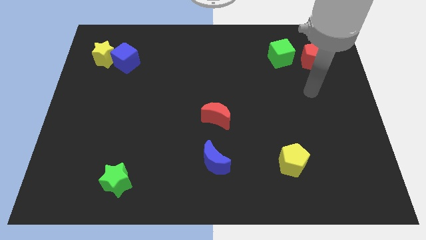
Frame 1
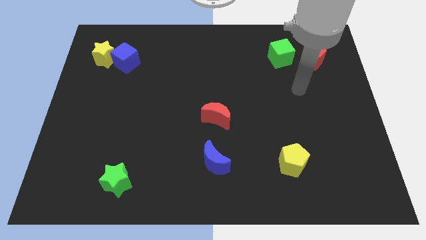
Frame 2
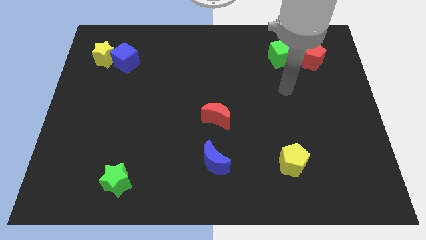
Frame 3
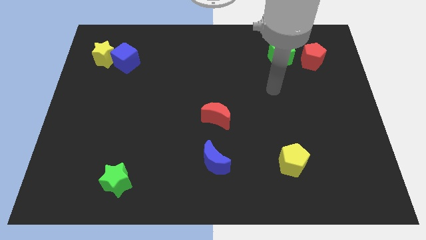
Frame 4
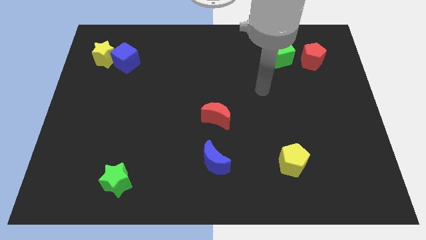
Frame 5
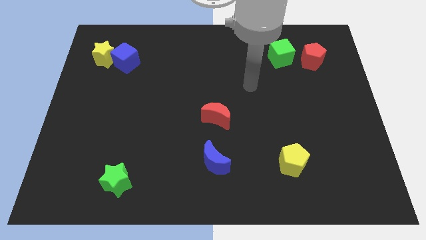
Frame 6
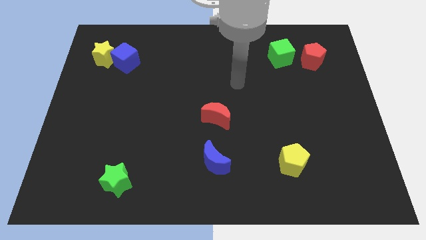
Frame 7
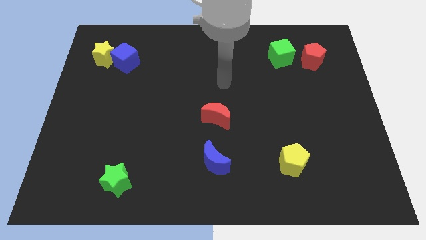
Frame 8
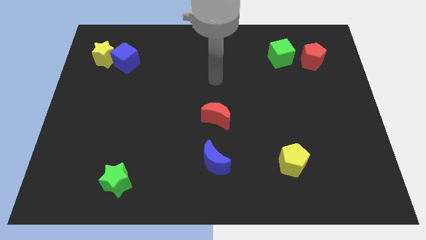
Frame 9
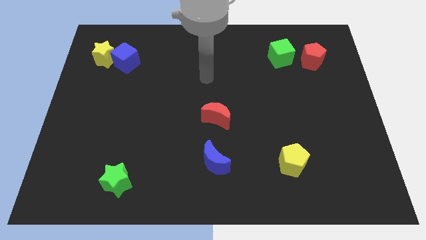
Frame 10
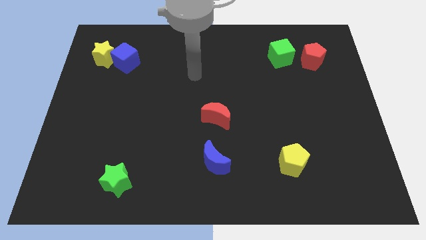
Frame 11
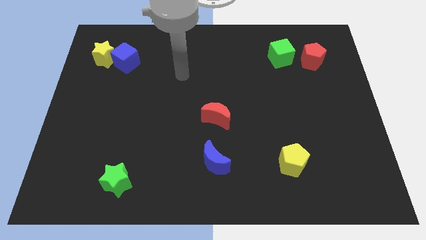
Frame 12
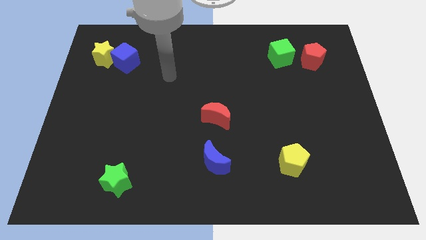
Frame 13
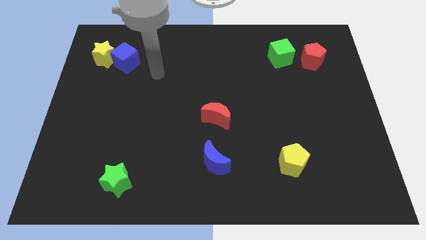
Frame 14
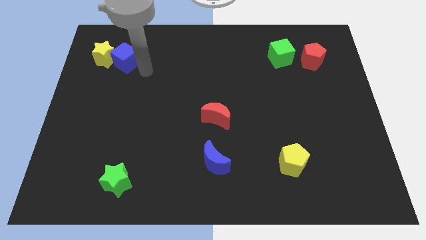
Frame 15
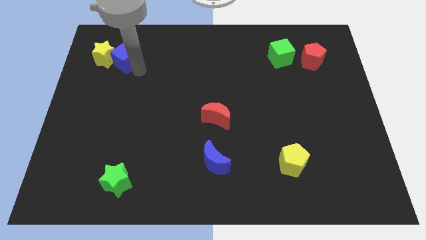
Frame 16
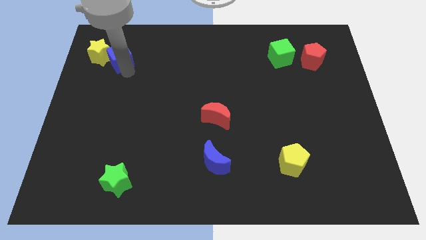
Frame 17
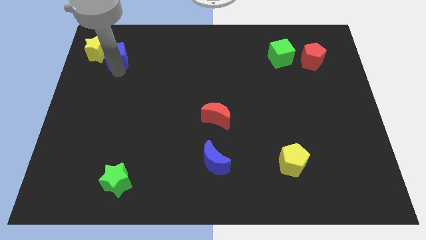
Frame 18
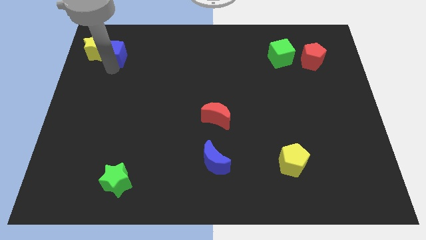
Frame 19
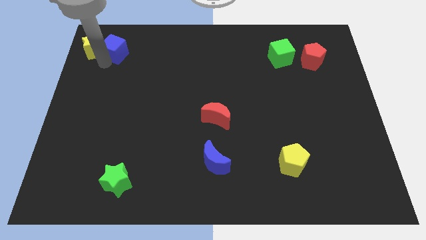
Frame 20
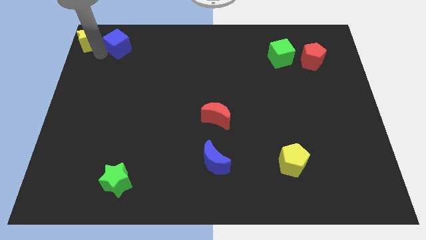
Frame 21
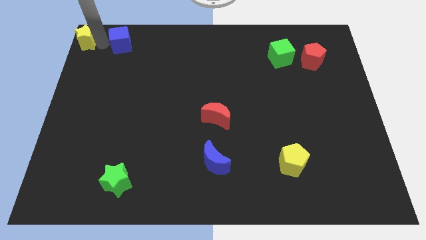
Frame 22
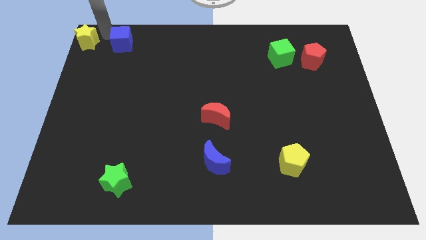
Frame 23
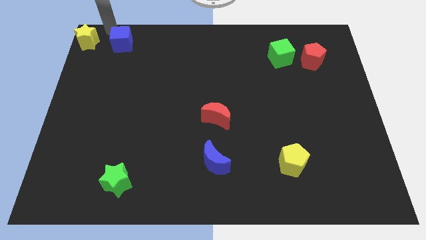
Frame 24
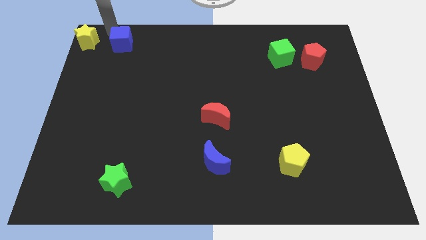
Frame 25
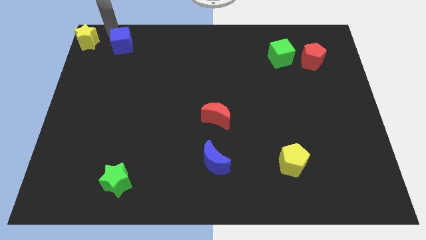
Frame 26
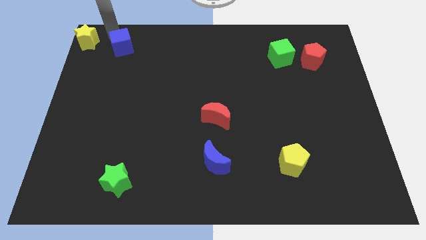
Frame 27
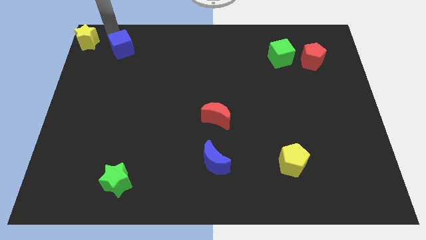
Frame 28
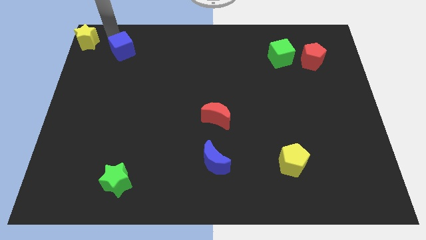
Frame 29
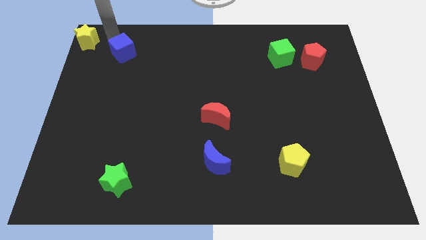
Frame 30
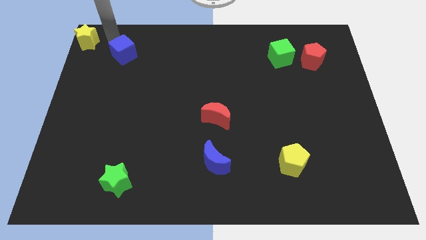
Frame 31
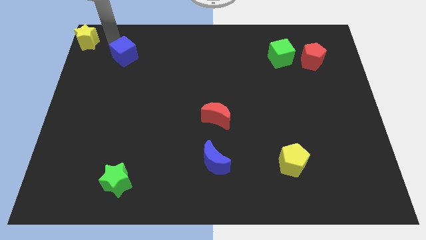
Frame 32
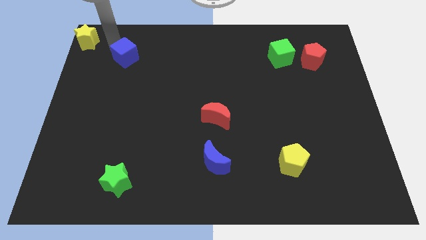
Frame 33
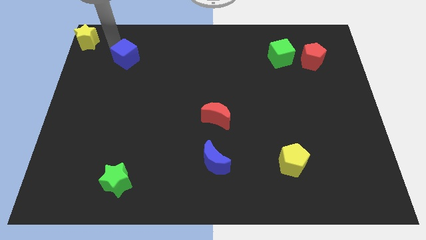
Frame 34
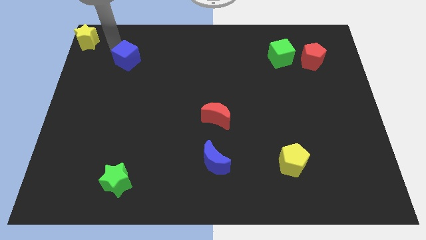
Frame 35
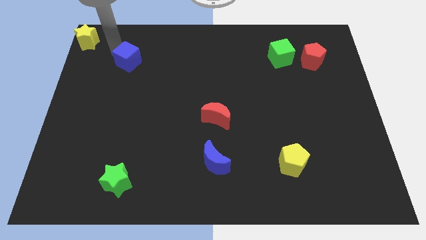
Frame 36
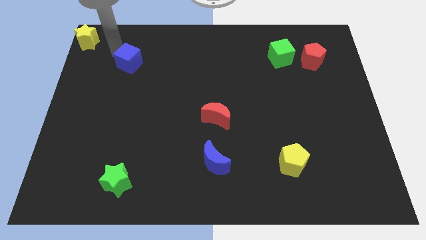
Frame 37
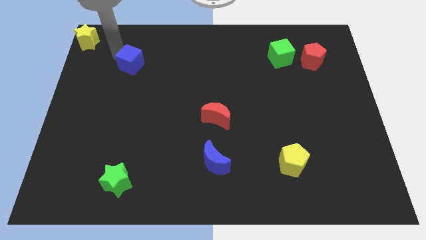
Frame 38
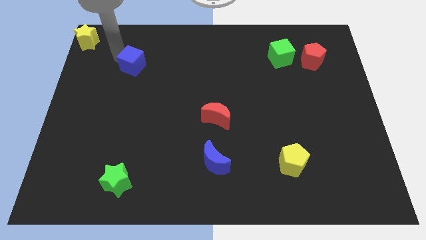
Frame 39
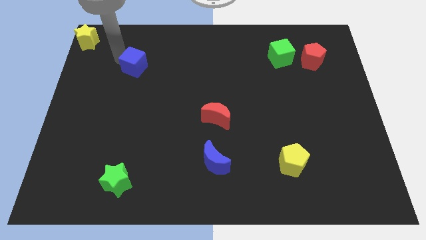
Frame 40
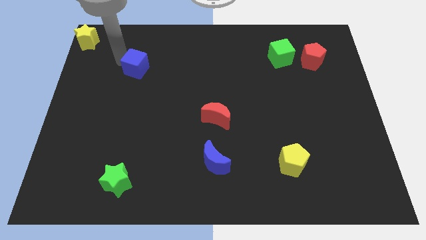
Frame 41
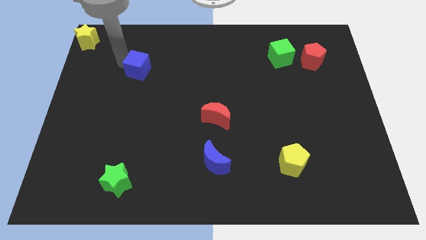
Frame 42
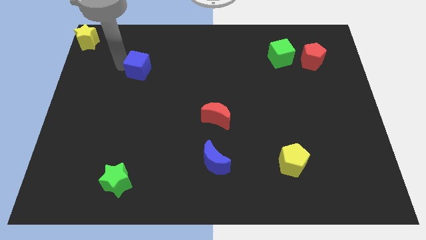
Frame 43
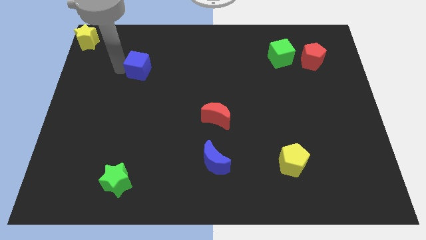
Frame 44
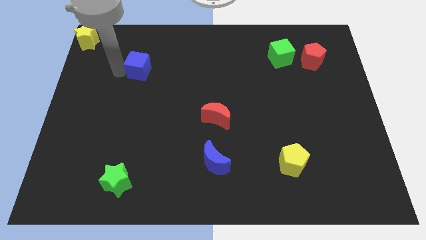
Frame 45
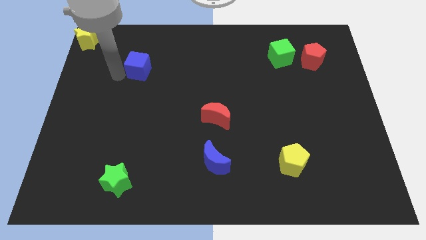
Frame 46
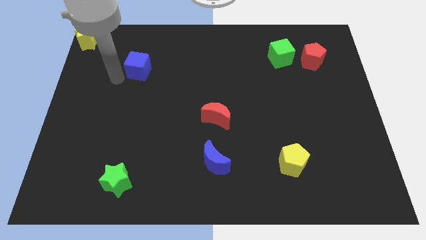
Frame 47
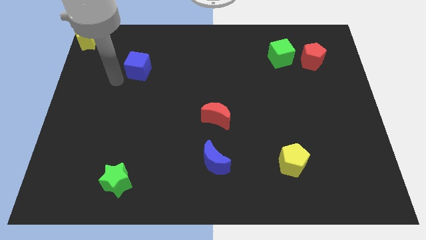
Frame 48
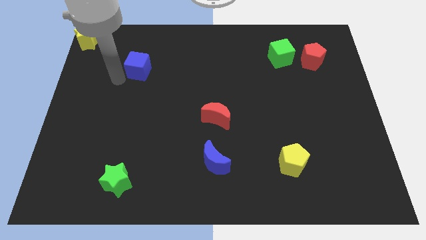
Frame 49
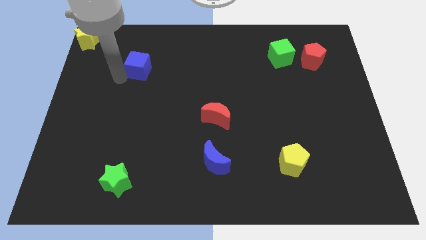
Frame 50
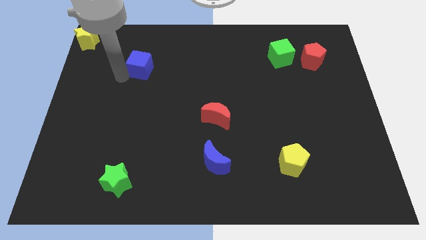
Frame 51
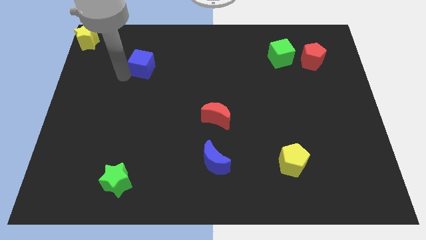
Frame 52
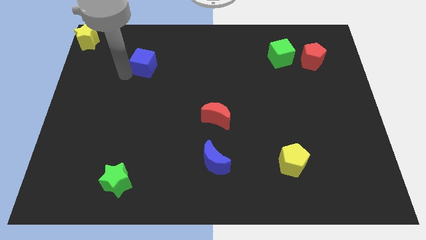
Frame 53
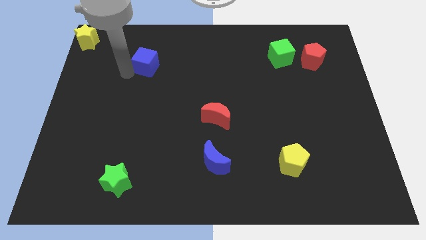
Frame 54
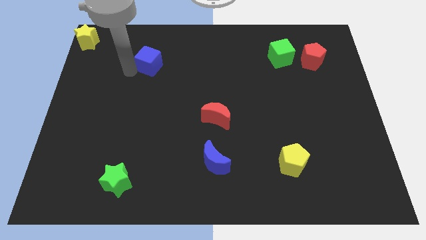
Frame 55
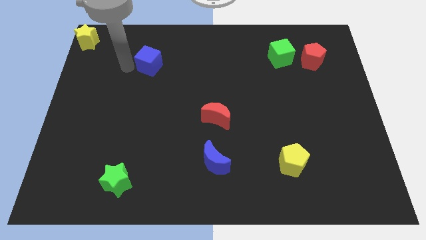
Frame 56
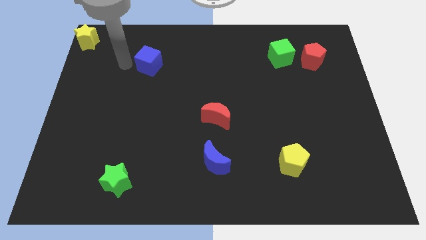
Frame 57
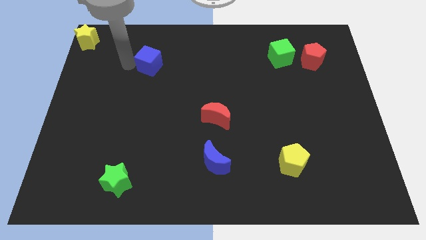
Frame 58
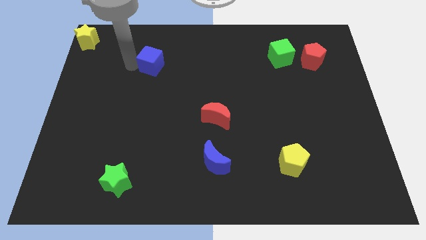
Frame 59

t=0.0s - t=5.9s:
slightly push the blue cube to the right

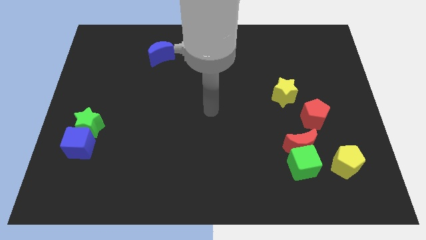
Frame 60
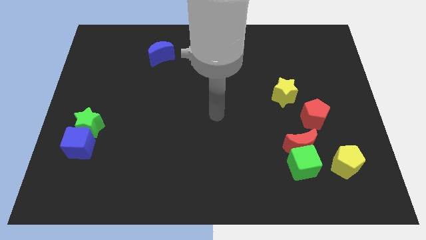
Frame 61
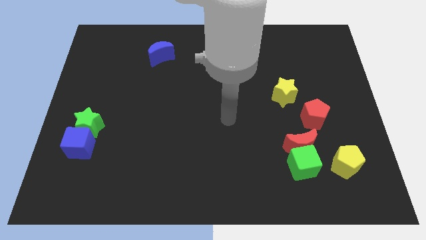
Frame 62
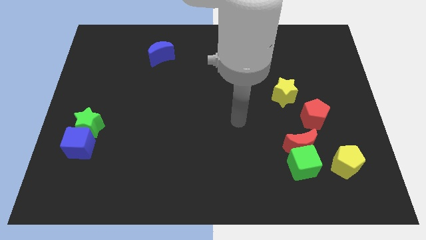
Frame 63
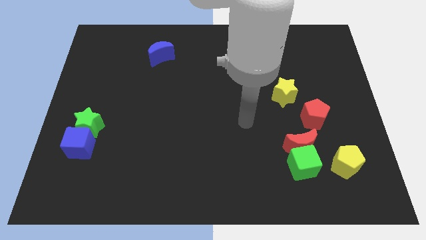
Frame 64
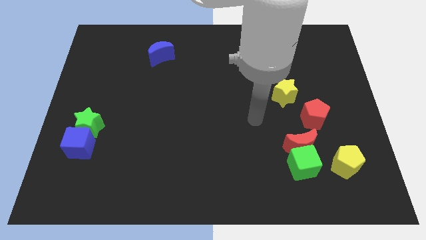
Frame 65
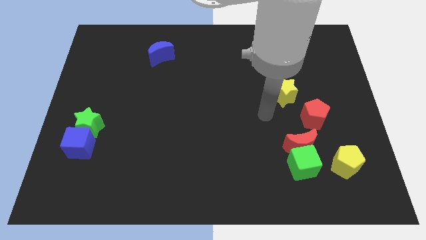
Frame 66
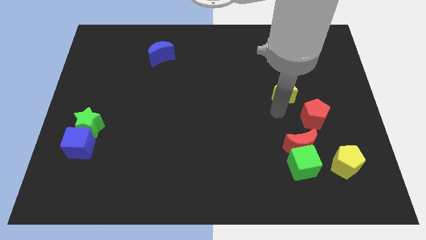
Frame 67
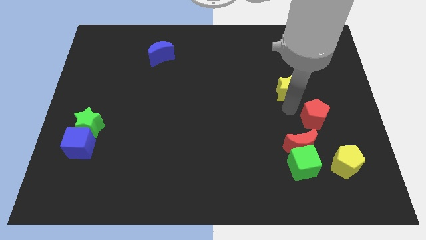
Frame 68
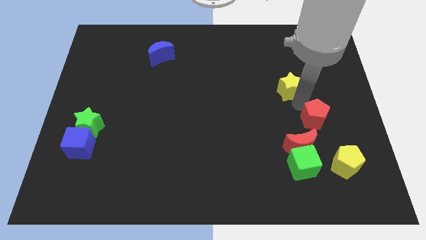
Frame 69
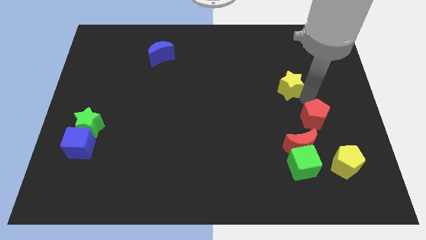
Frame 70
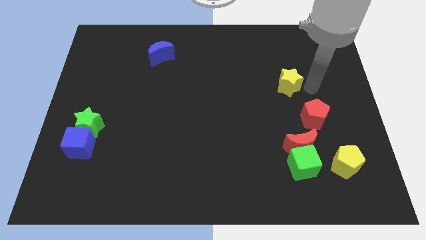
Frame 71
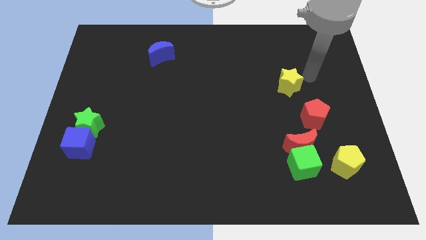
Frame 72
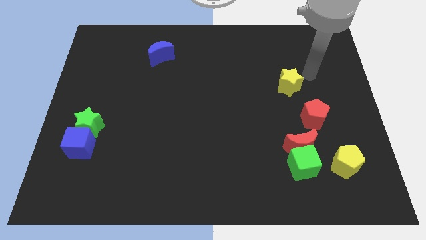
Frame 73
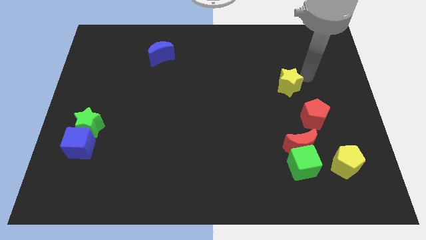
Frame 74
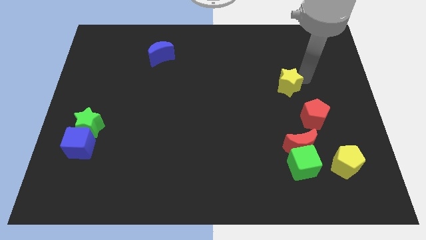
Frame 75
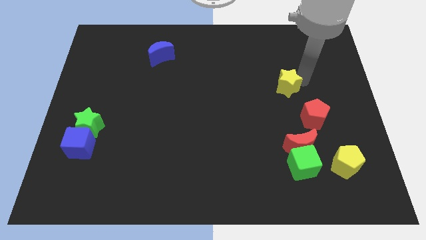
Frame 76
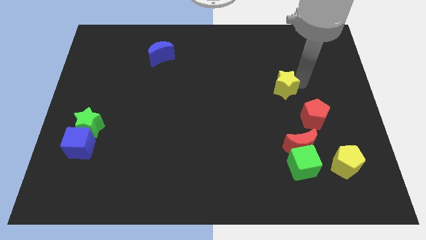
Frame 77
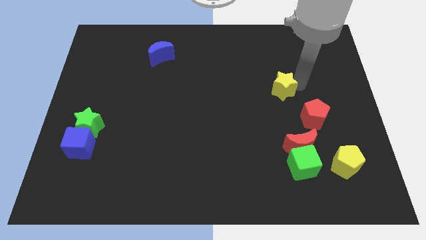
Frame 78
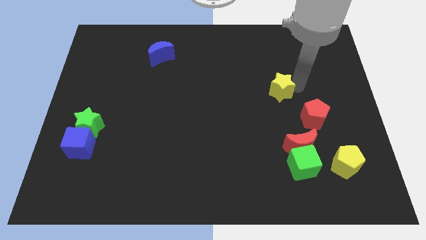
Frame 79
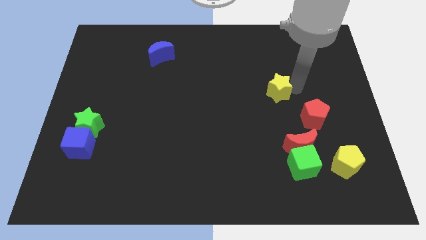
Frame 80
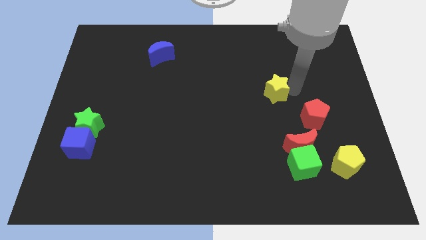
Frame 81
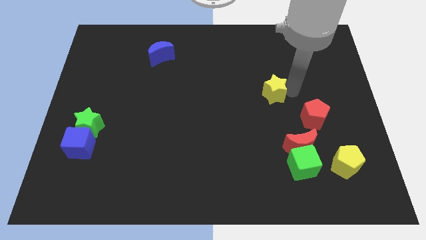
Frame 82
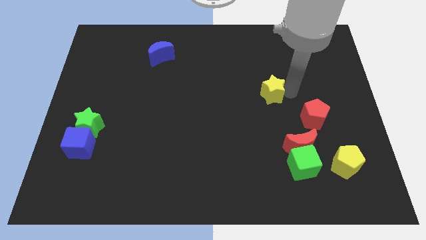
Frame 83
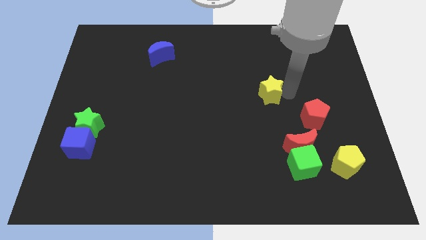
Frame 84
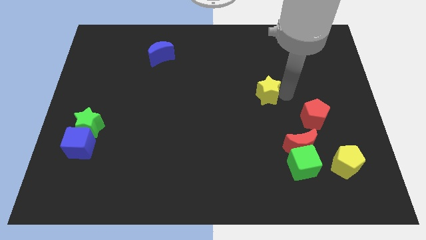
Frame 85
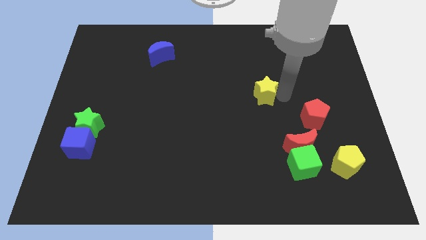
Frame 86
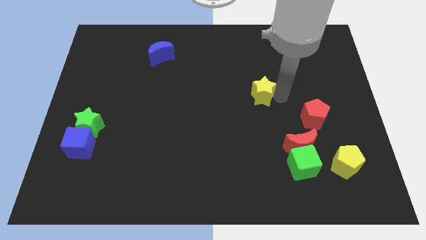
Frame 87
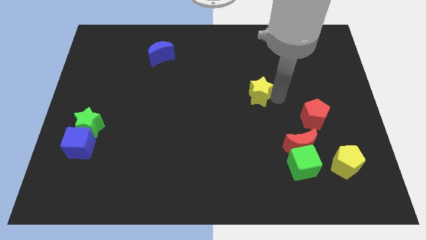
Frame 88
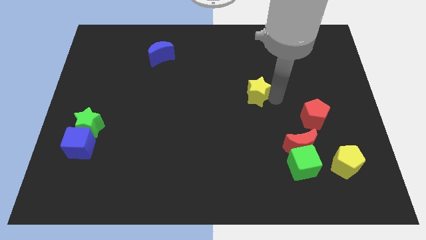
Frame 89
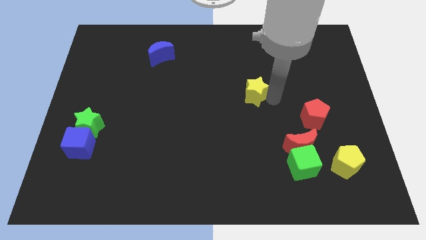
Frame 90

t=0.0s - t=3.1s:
slide the yellow star a little to the left
